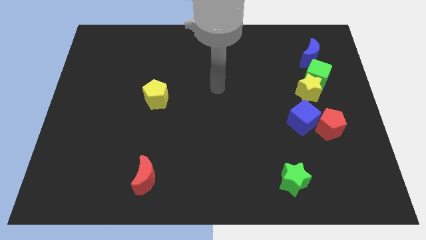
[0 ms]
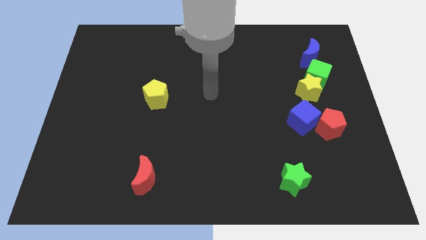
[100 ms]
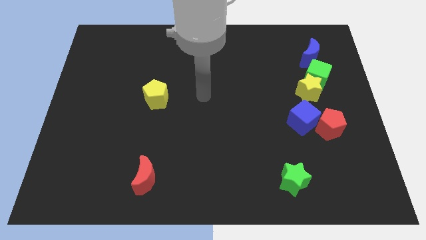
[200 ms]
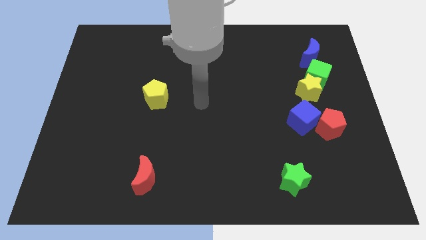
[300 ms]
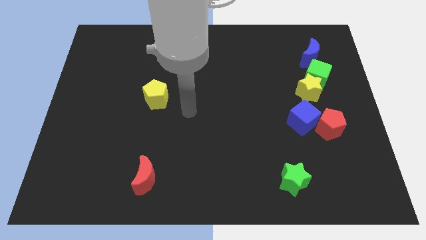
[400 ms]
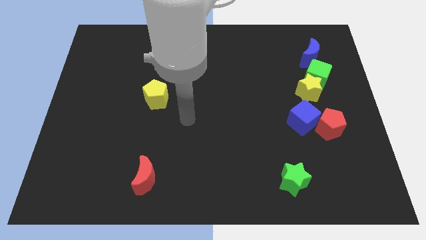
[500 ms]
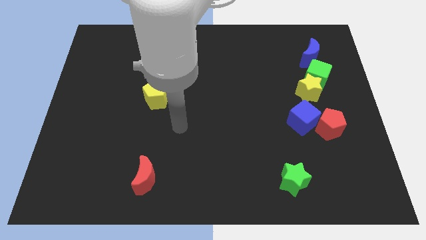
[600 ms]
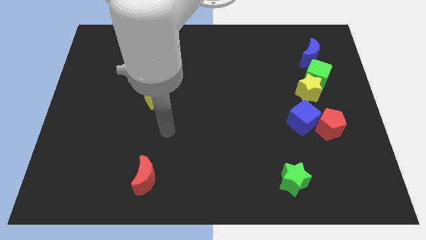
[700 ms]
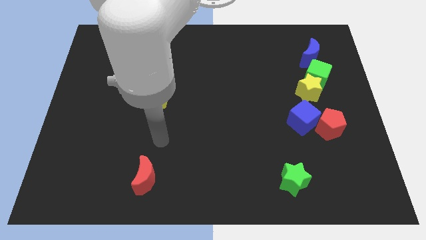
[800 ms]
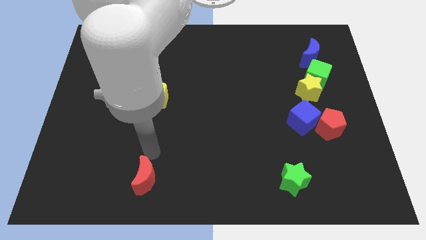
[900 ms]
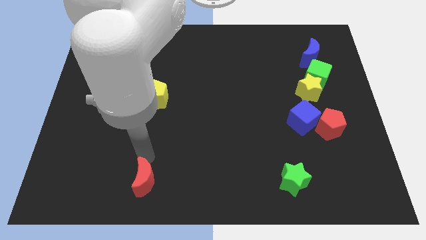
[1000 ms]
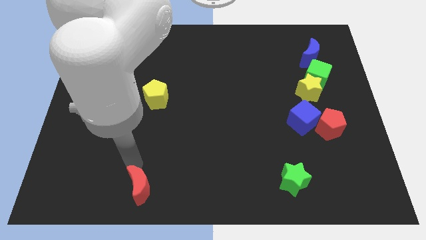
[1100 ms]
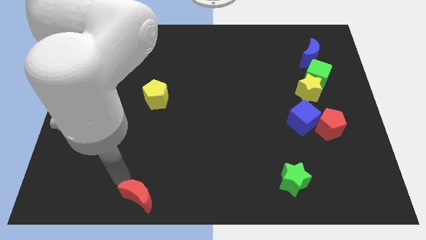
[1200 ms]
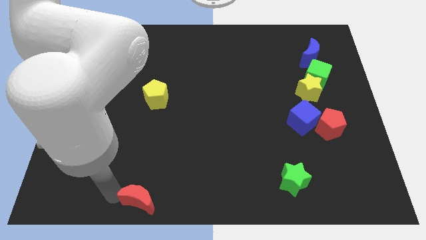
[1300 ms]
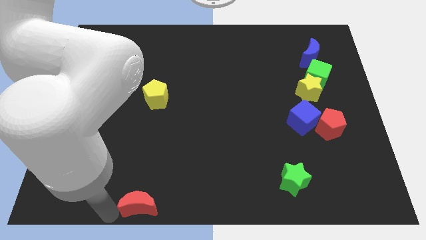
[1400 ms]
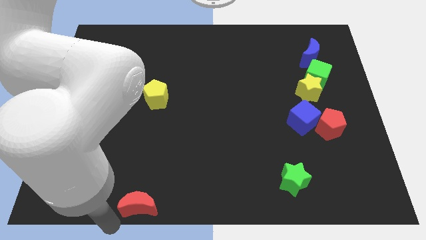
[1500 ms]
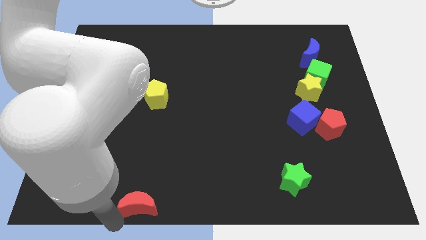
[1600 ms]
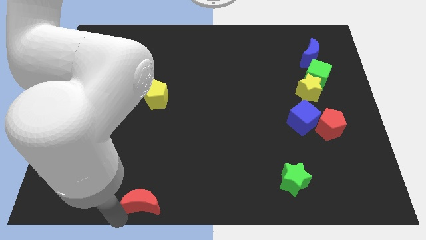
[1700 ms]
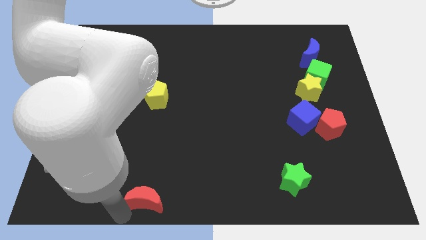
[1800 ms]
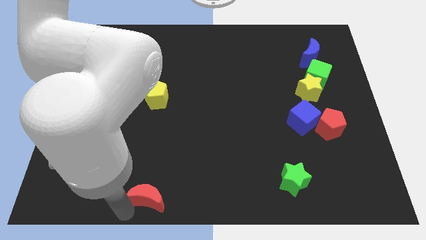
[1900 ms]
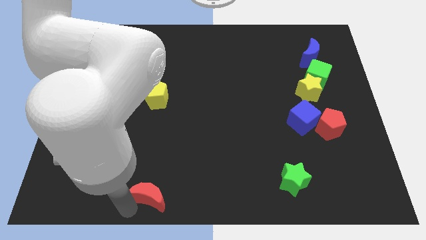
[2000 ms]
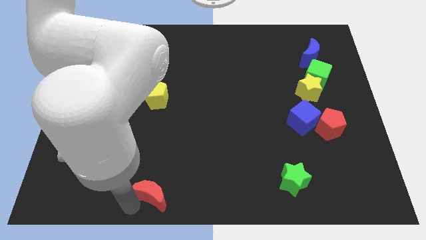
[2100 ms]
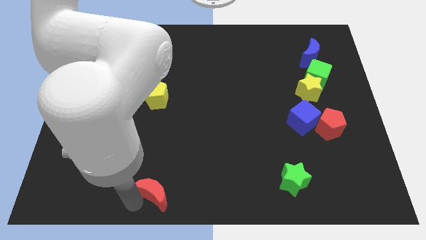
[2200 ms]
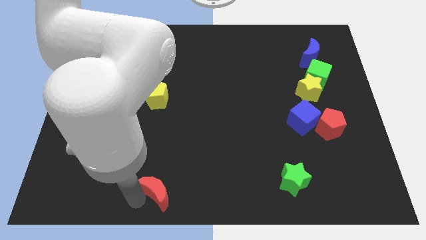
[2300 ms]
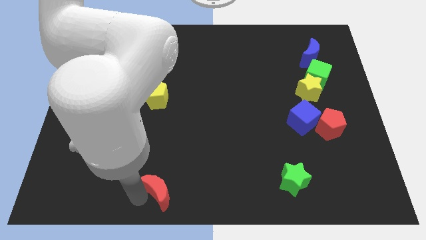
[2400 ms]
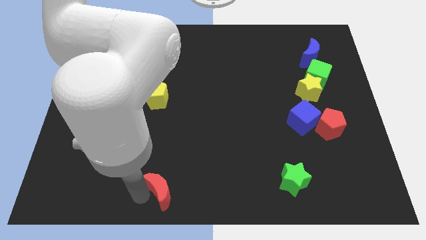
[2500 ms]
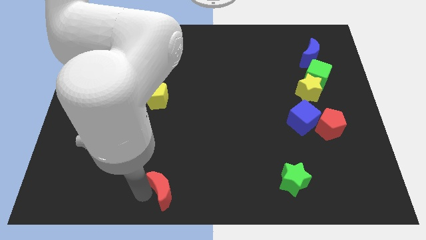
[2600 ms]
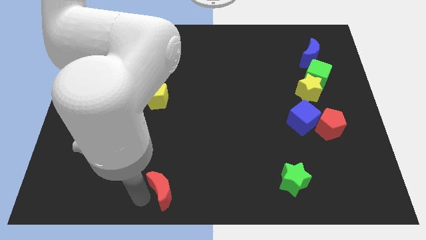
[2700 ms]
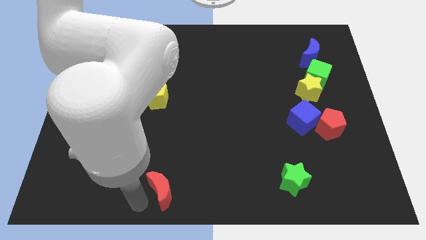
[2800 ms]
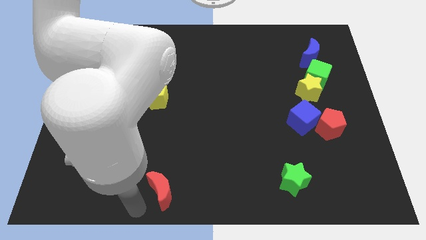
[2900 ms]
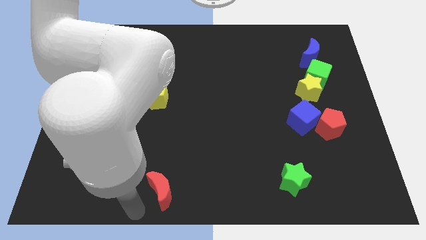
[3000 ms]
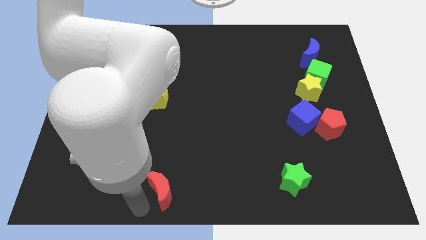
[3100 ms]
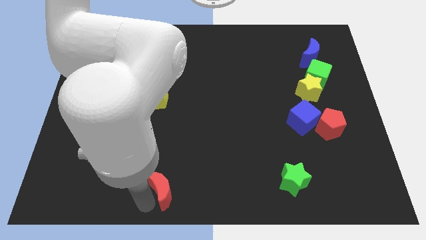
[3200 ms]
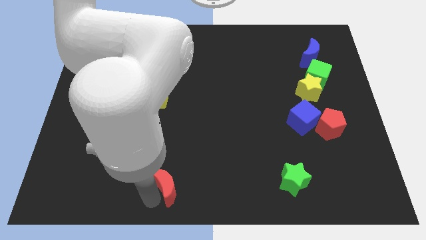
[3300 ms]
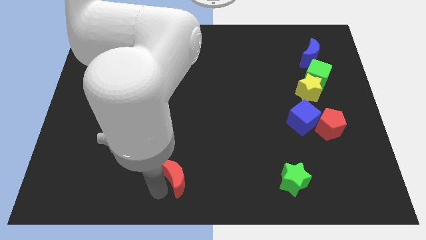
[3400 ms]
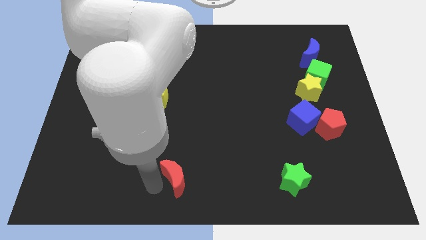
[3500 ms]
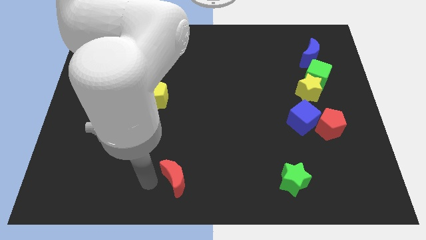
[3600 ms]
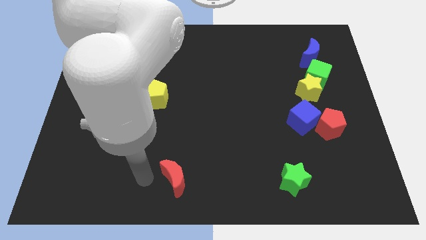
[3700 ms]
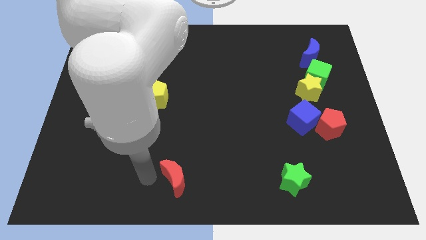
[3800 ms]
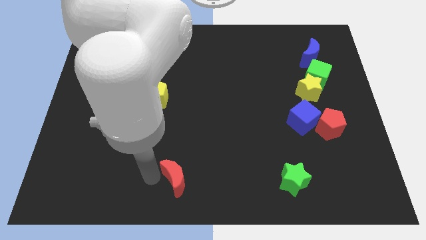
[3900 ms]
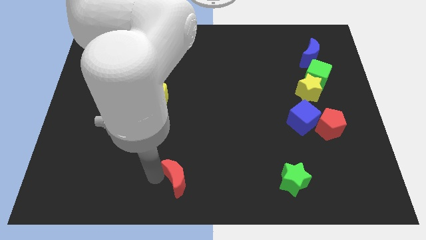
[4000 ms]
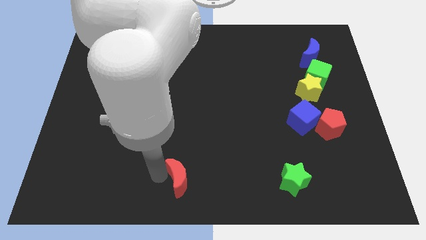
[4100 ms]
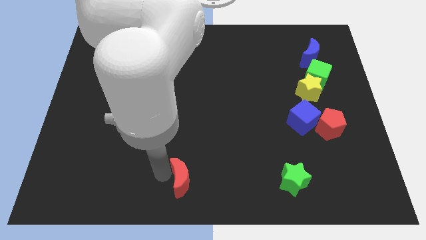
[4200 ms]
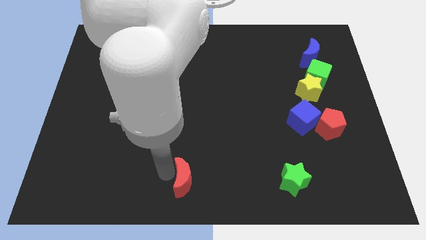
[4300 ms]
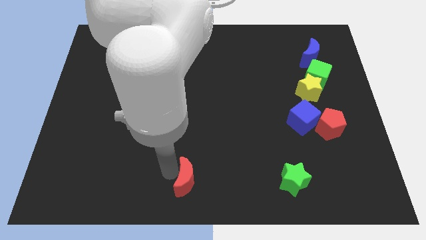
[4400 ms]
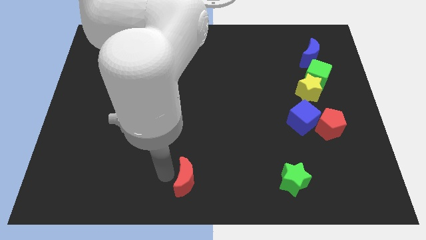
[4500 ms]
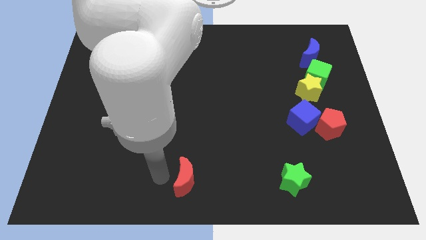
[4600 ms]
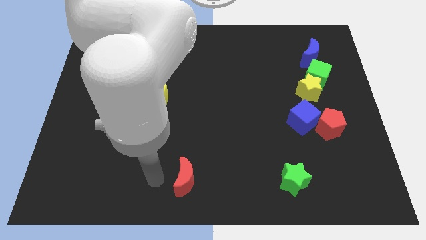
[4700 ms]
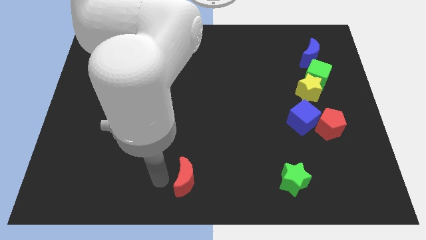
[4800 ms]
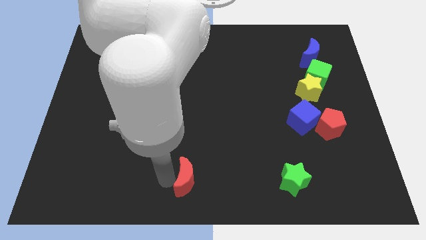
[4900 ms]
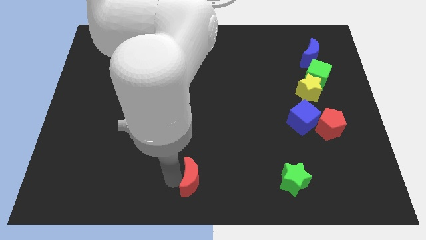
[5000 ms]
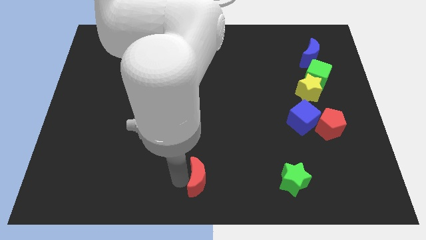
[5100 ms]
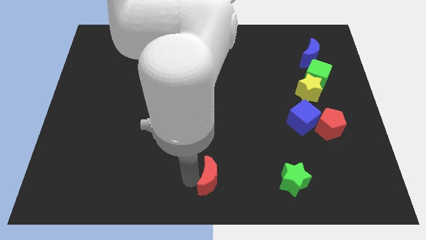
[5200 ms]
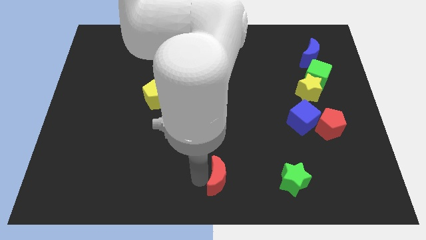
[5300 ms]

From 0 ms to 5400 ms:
push the red moon just left of the green star

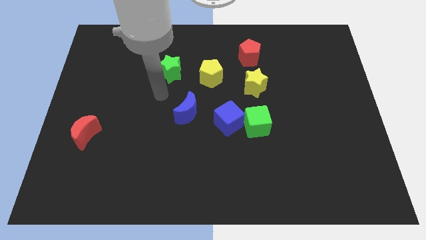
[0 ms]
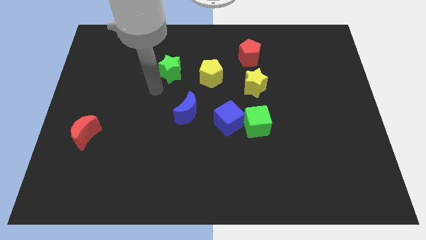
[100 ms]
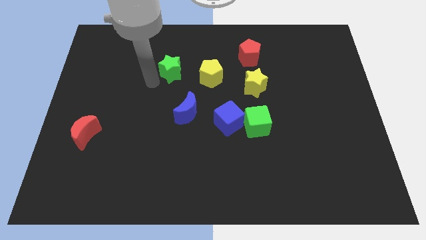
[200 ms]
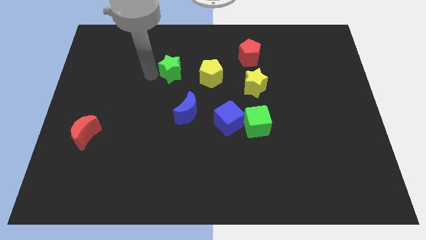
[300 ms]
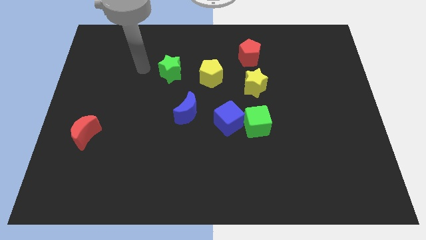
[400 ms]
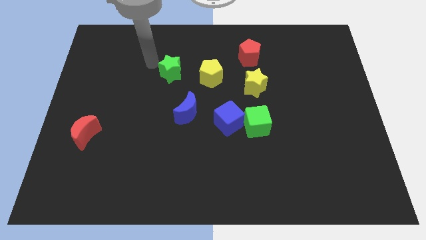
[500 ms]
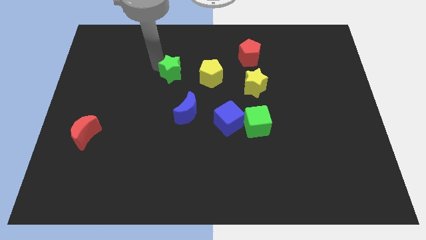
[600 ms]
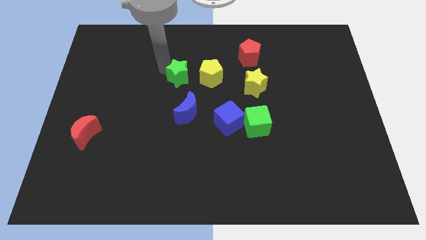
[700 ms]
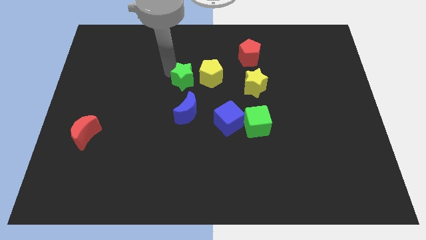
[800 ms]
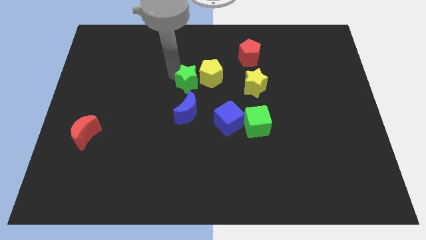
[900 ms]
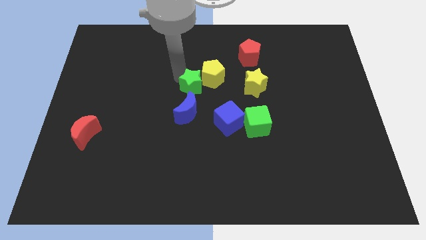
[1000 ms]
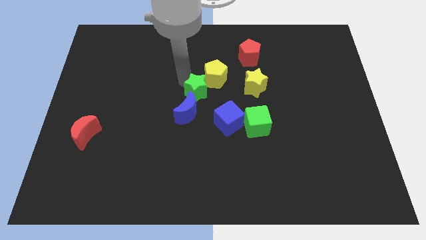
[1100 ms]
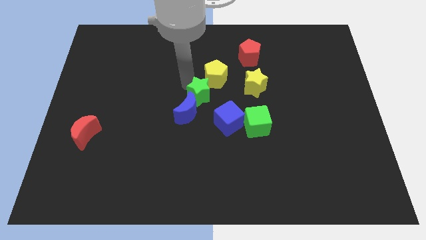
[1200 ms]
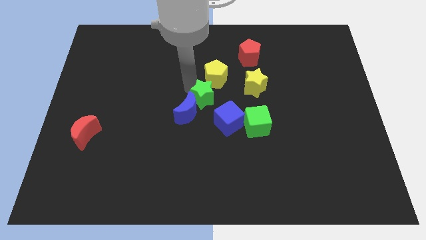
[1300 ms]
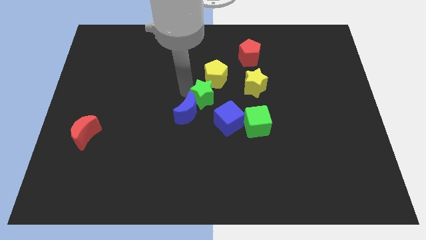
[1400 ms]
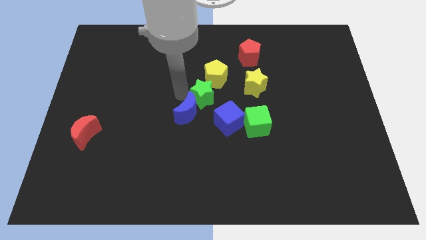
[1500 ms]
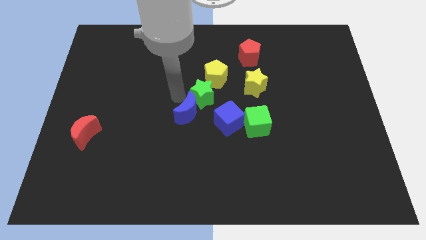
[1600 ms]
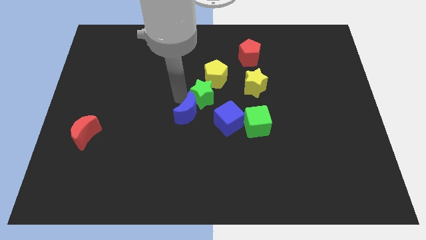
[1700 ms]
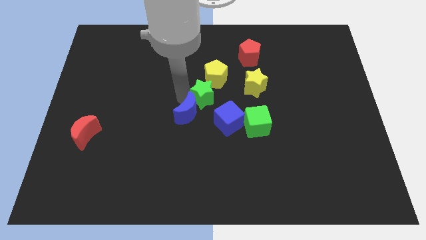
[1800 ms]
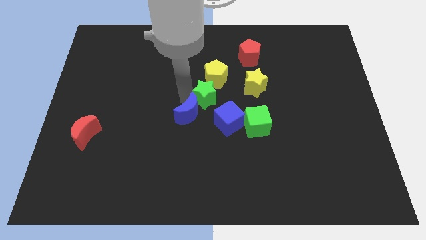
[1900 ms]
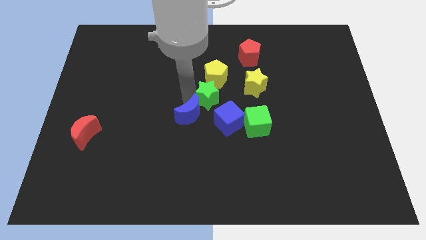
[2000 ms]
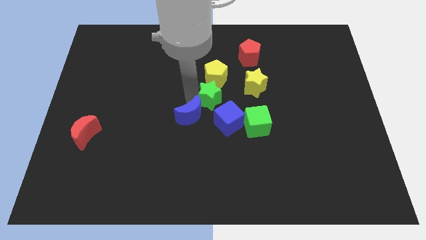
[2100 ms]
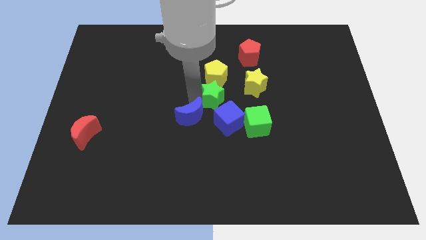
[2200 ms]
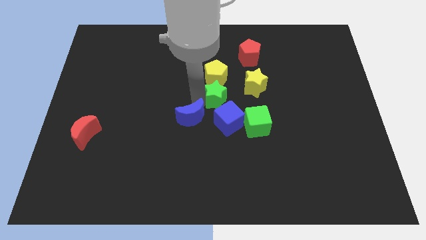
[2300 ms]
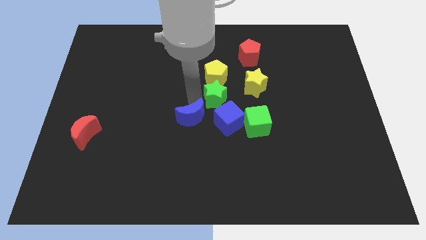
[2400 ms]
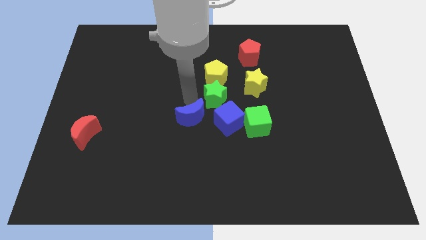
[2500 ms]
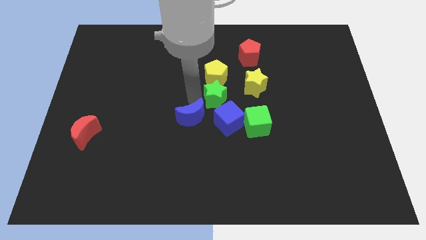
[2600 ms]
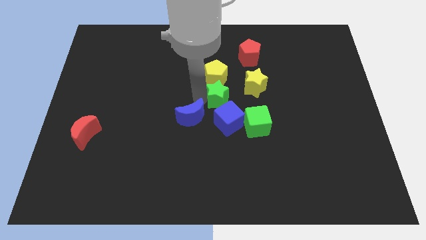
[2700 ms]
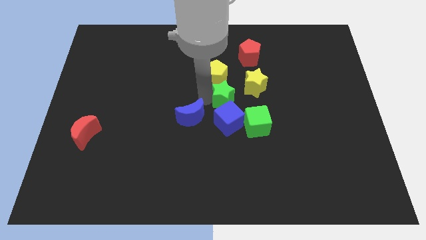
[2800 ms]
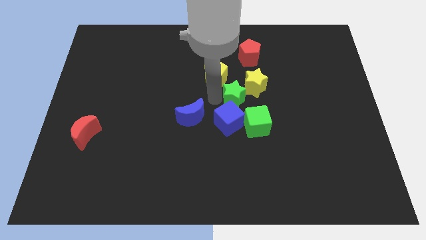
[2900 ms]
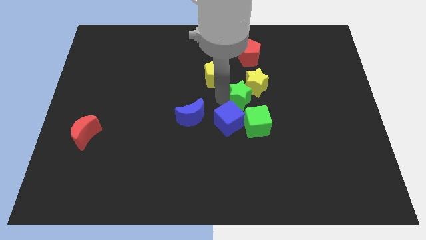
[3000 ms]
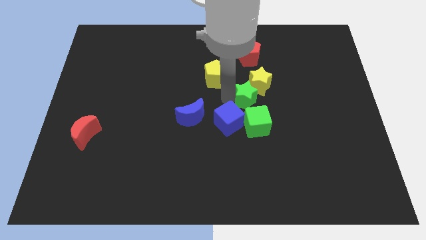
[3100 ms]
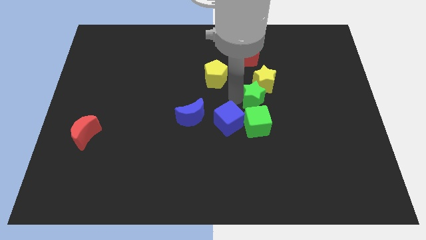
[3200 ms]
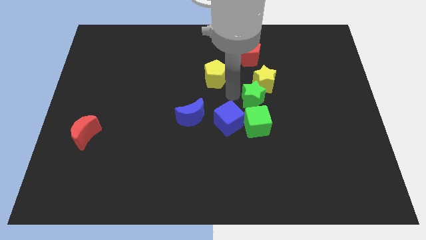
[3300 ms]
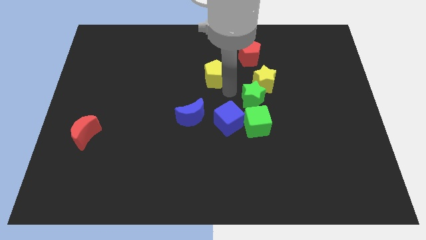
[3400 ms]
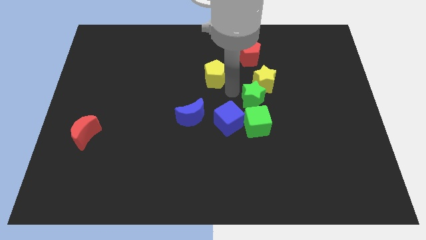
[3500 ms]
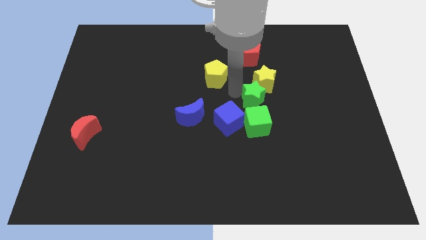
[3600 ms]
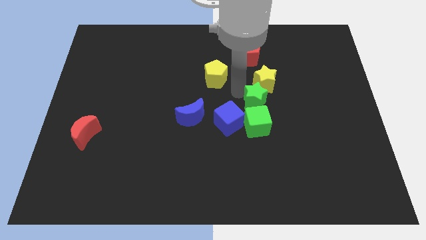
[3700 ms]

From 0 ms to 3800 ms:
slide the green star to the top right of the green cube
